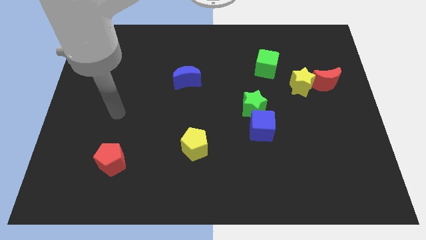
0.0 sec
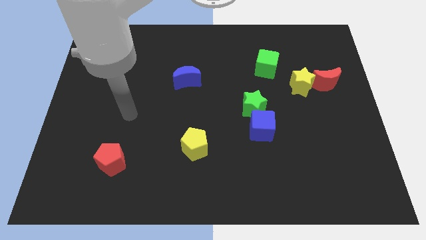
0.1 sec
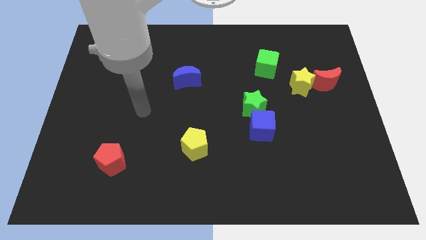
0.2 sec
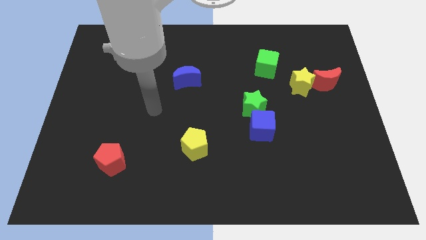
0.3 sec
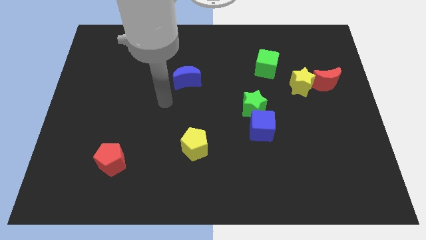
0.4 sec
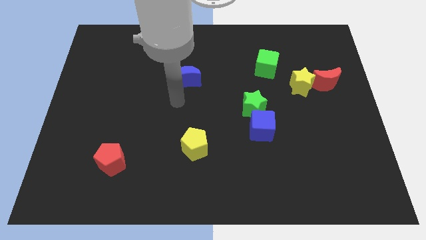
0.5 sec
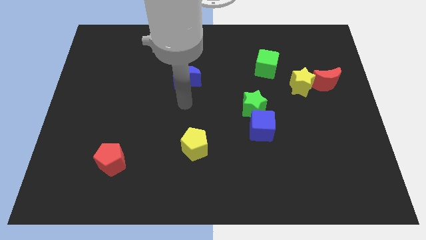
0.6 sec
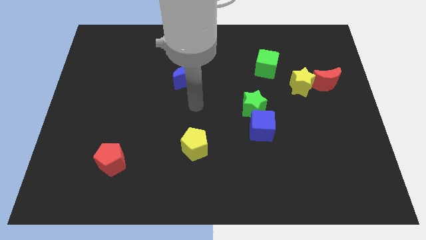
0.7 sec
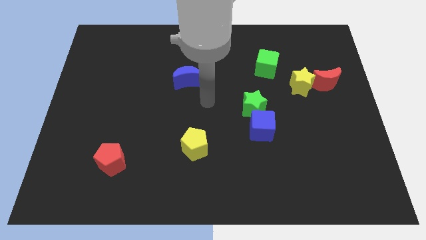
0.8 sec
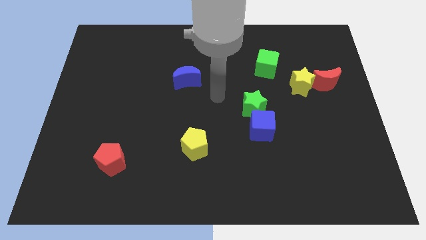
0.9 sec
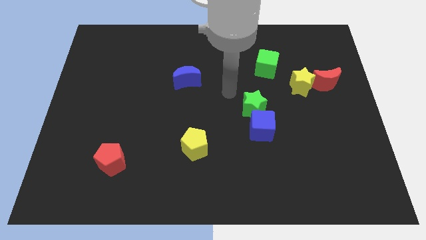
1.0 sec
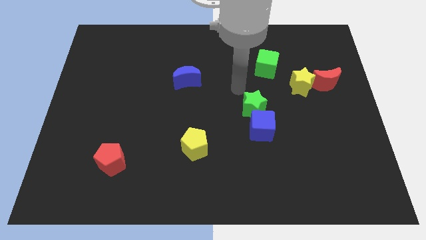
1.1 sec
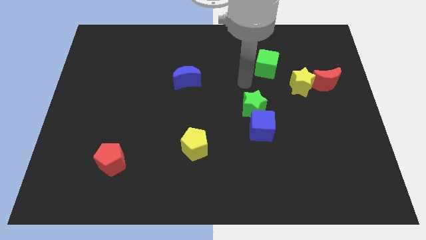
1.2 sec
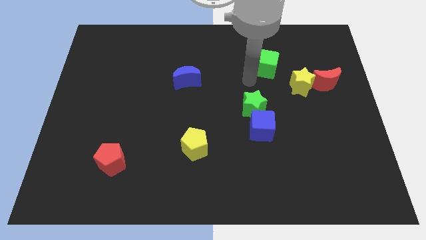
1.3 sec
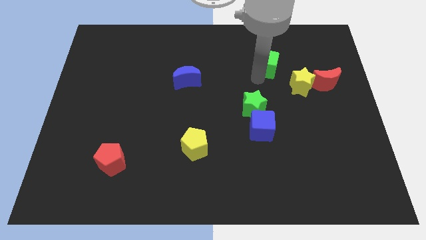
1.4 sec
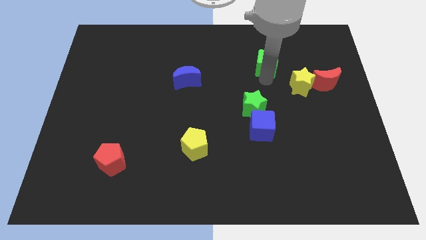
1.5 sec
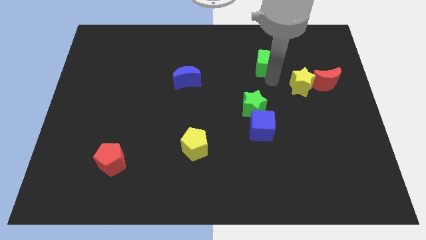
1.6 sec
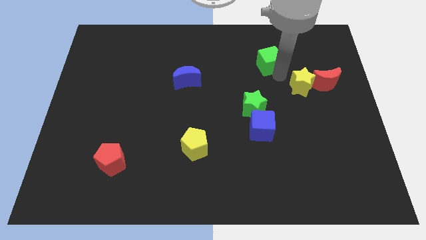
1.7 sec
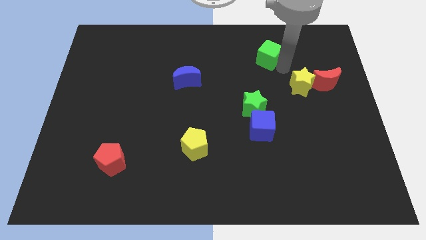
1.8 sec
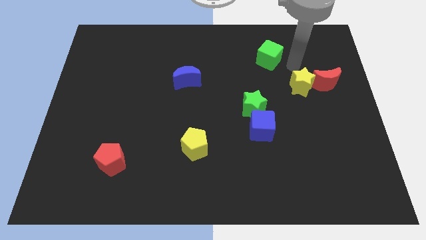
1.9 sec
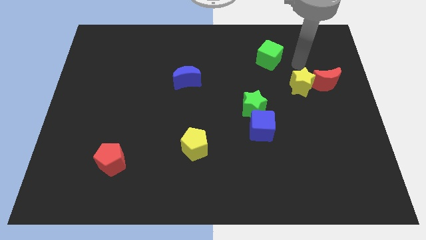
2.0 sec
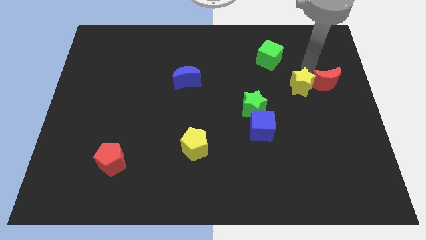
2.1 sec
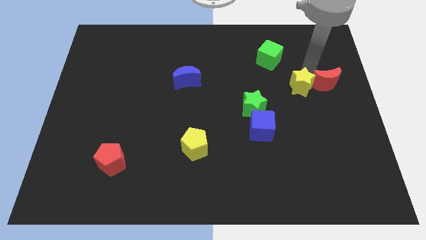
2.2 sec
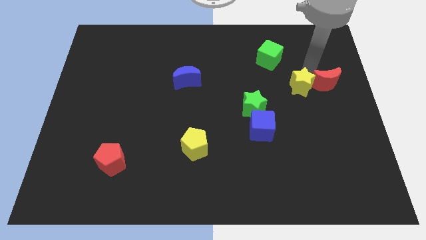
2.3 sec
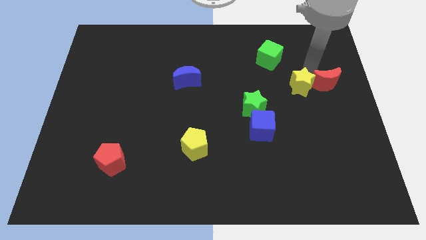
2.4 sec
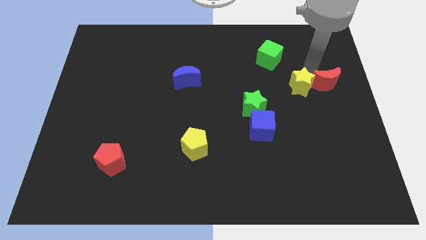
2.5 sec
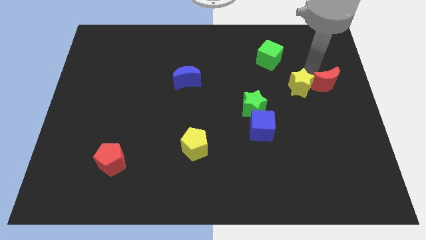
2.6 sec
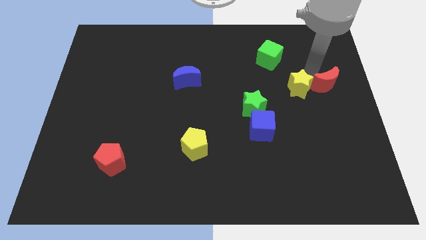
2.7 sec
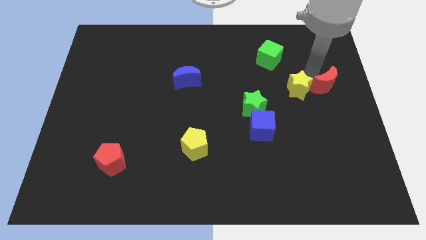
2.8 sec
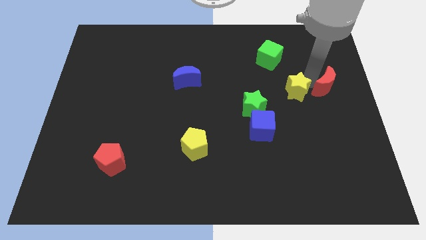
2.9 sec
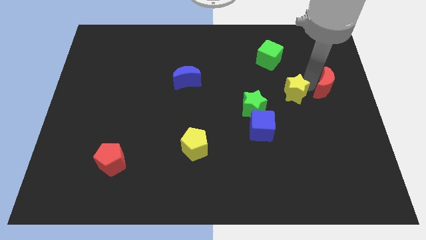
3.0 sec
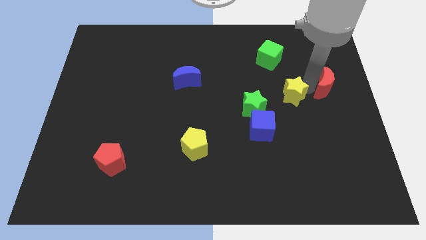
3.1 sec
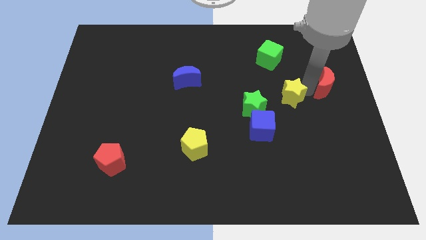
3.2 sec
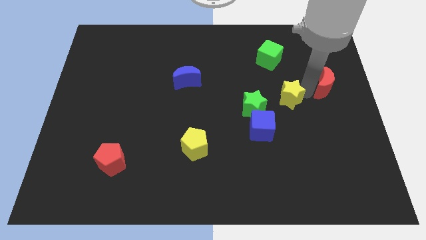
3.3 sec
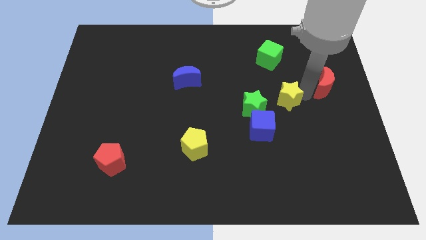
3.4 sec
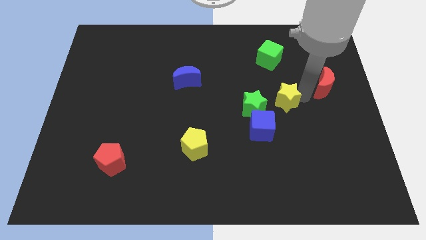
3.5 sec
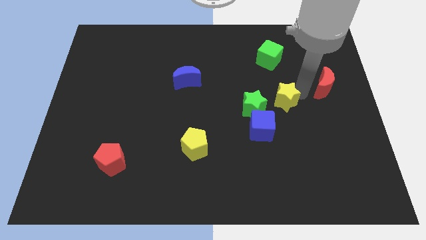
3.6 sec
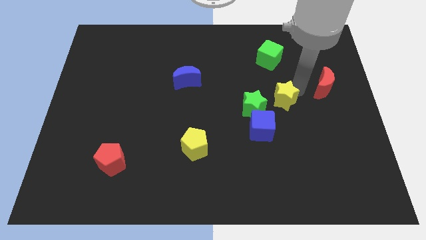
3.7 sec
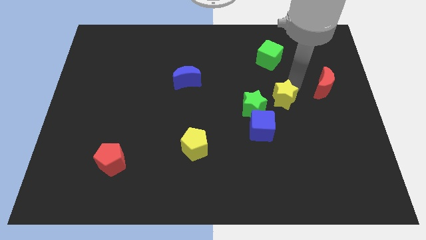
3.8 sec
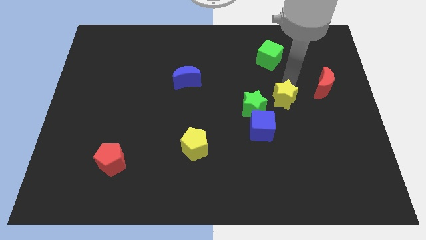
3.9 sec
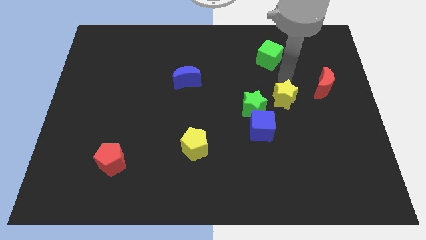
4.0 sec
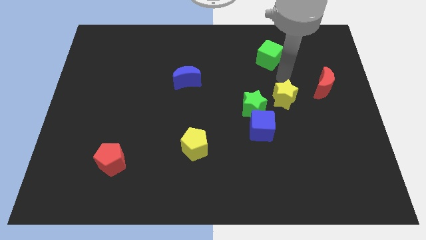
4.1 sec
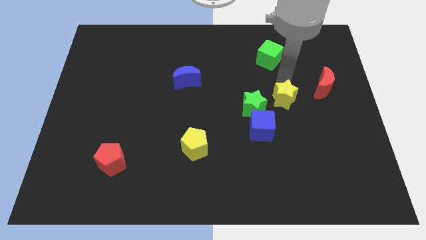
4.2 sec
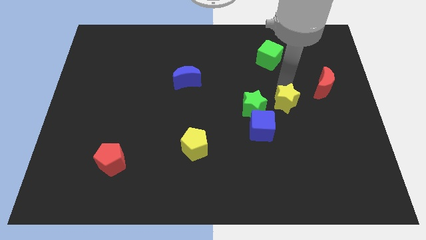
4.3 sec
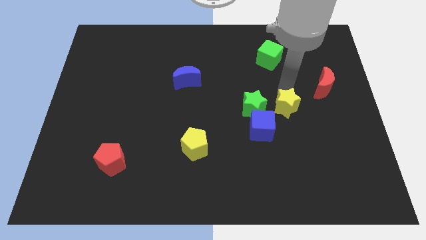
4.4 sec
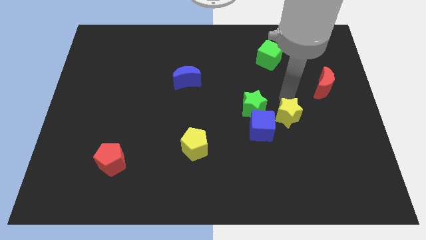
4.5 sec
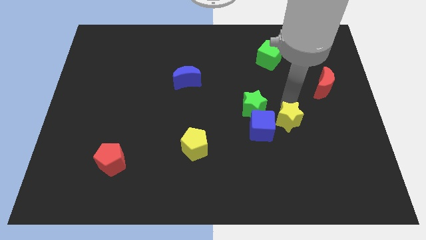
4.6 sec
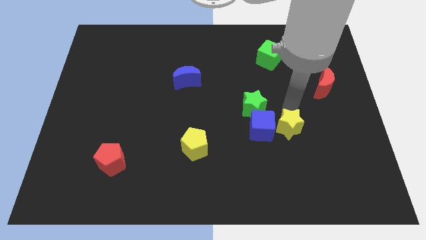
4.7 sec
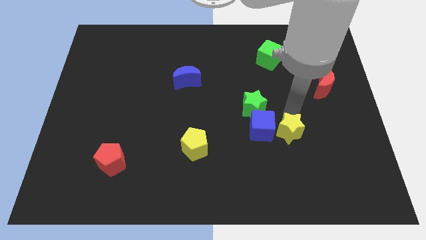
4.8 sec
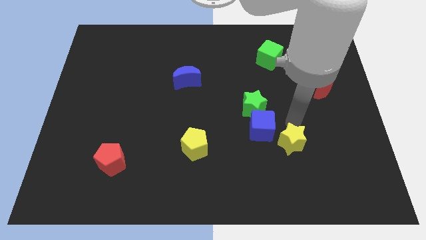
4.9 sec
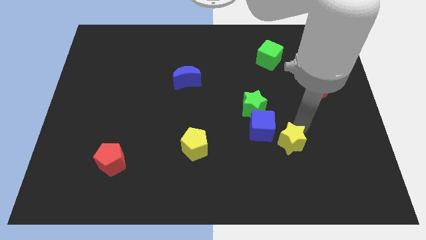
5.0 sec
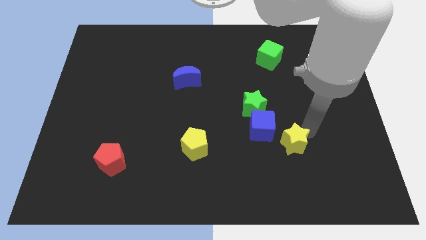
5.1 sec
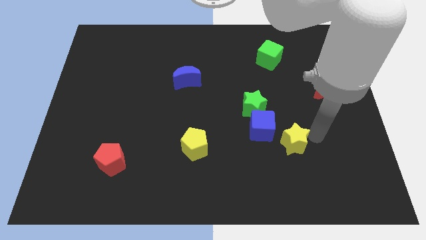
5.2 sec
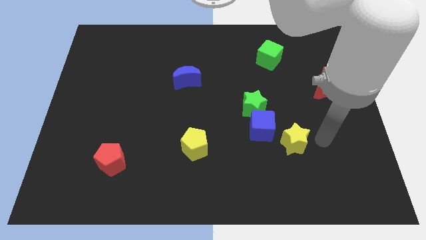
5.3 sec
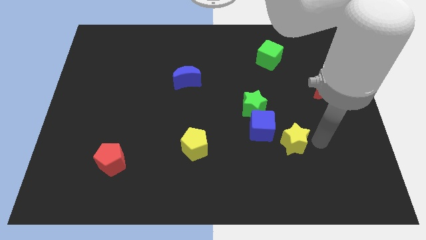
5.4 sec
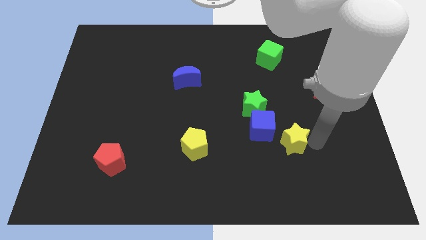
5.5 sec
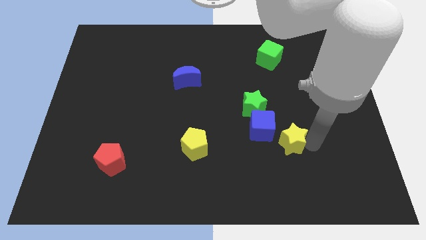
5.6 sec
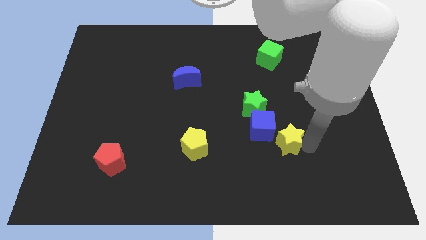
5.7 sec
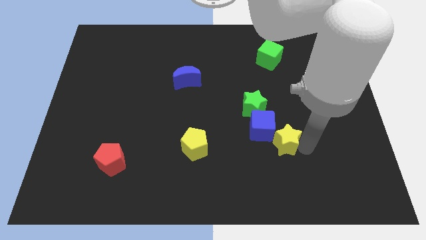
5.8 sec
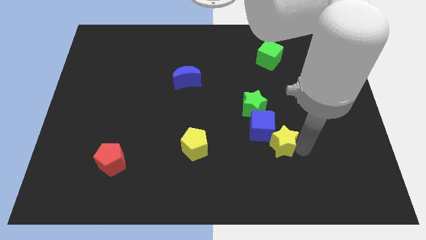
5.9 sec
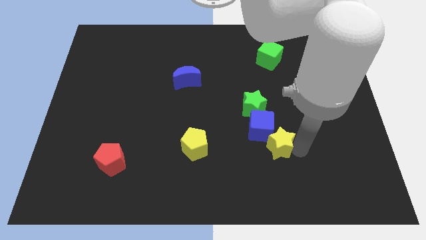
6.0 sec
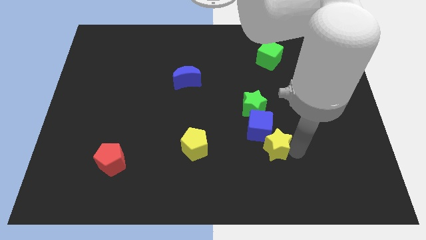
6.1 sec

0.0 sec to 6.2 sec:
slide the yellow star below the green star
